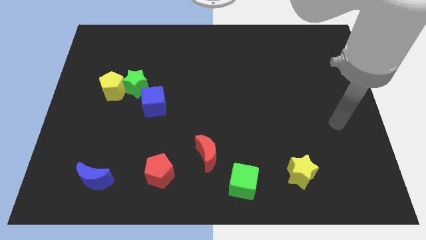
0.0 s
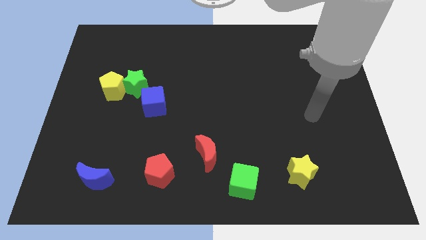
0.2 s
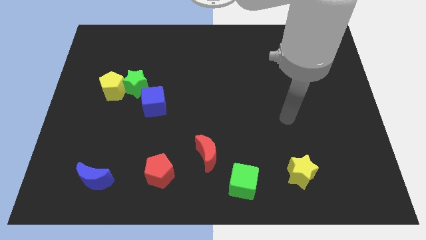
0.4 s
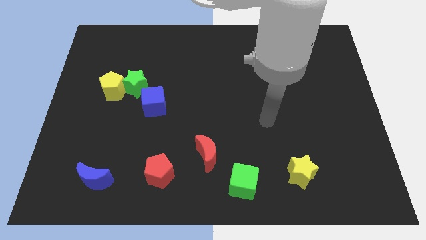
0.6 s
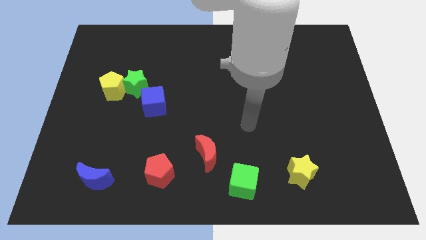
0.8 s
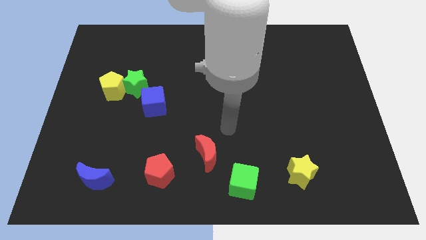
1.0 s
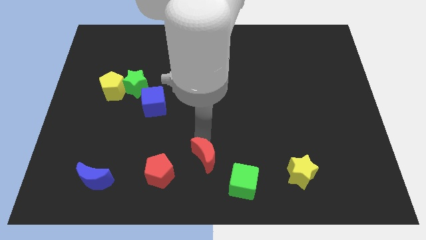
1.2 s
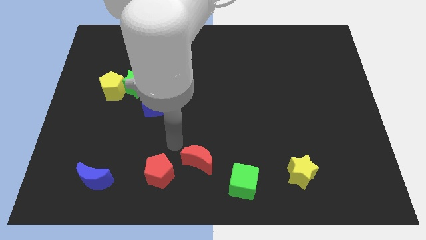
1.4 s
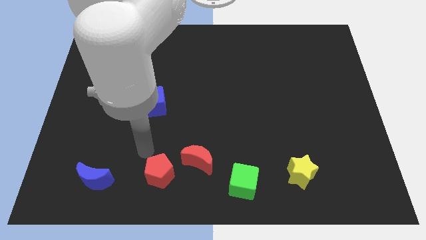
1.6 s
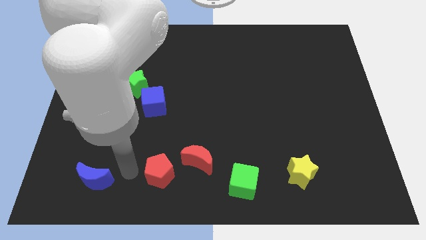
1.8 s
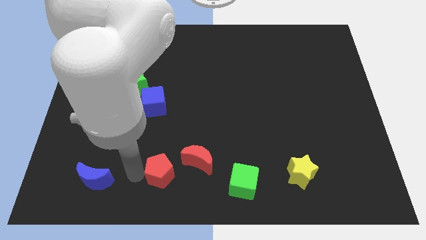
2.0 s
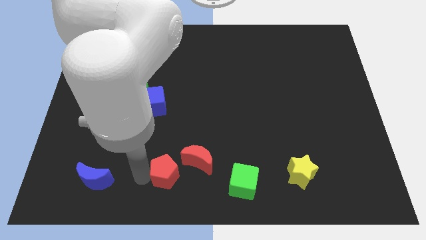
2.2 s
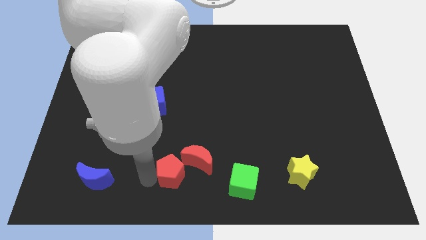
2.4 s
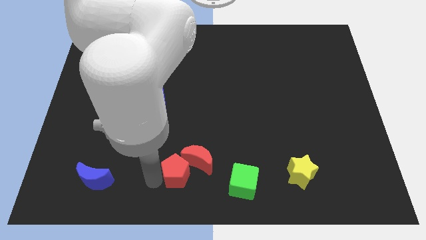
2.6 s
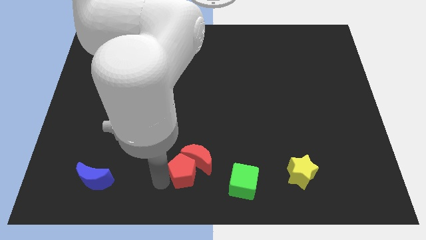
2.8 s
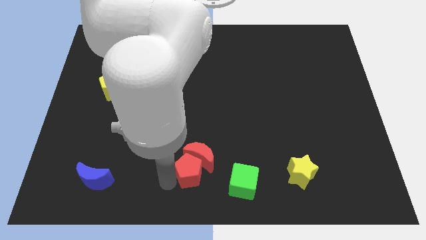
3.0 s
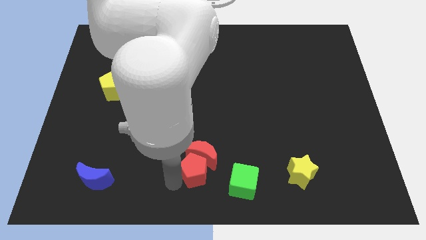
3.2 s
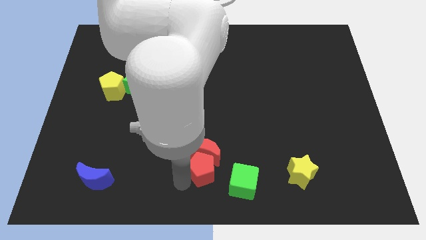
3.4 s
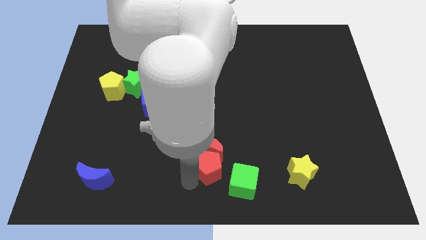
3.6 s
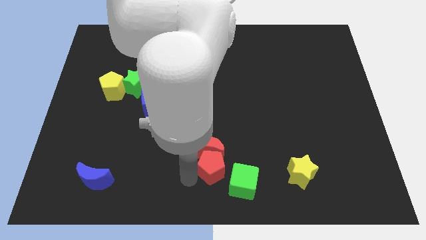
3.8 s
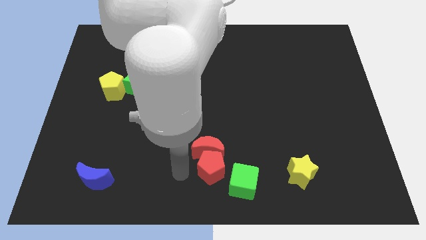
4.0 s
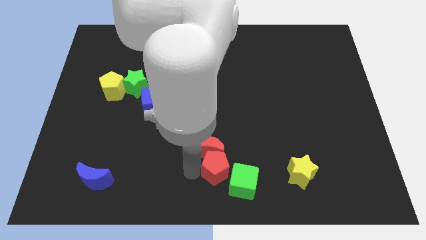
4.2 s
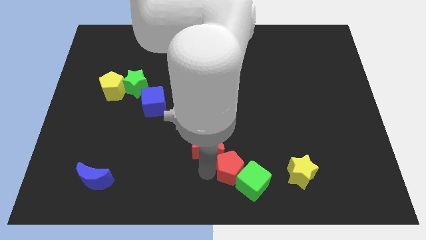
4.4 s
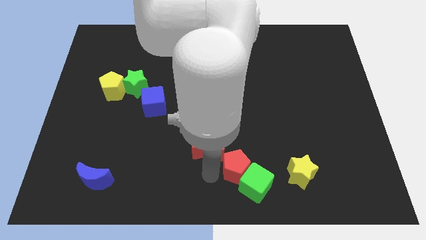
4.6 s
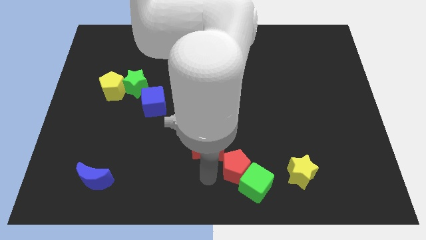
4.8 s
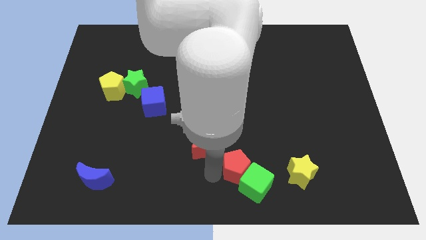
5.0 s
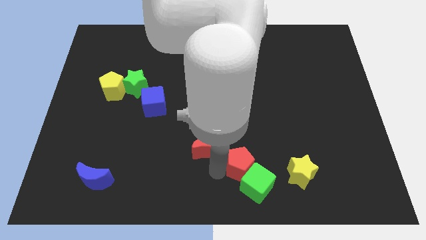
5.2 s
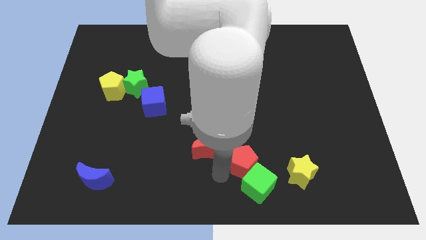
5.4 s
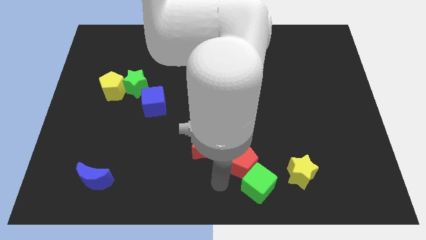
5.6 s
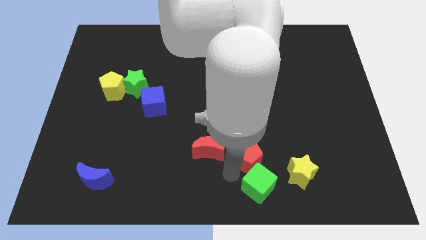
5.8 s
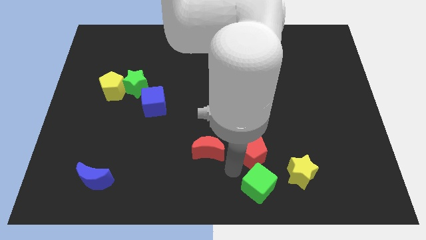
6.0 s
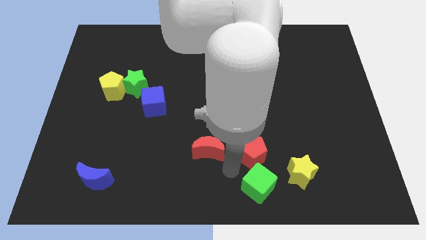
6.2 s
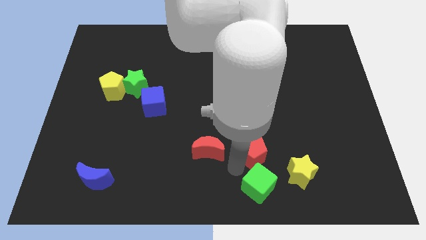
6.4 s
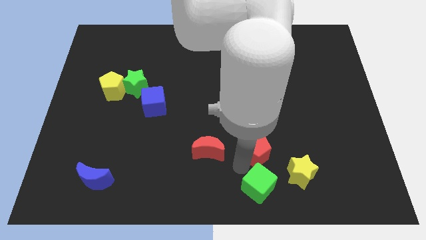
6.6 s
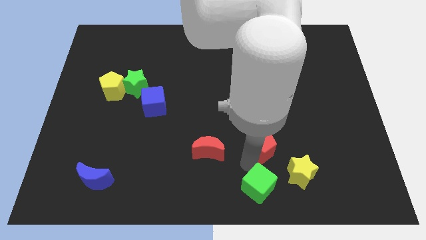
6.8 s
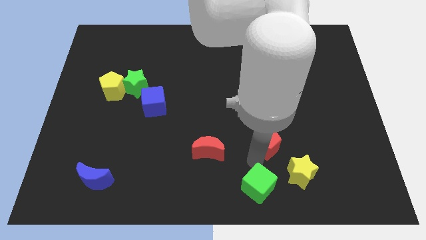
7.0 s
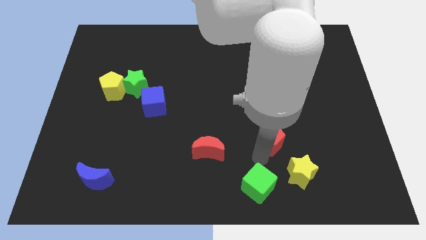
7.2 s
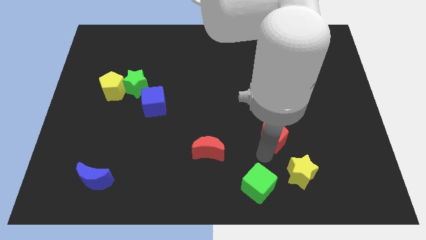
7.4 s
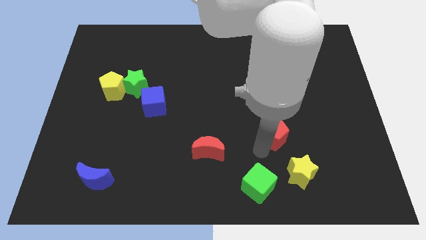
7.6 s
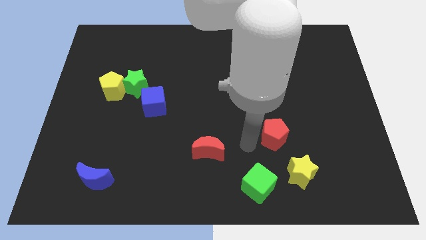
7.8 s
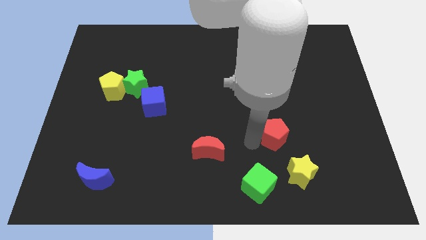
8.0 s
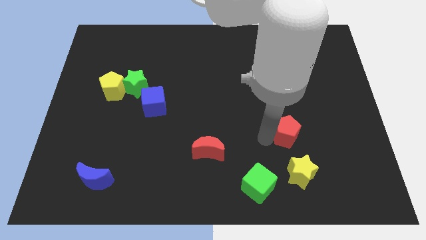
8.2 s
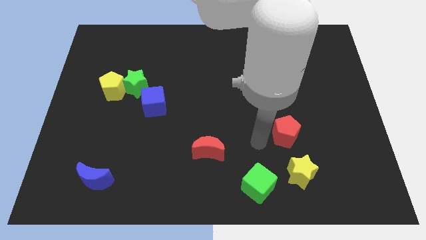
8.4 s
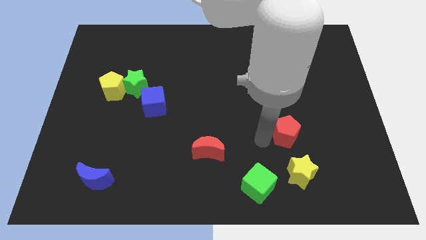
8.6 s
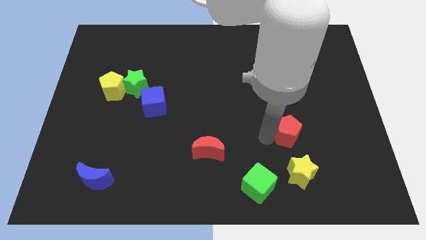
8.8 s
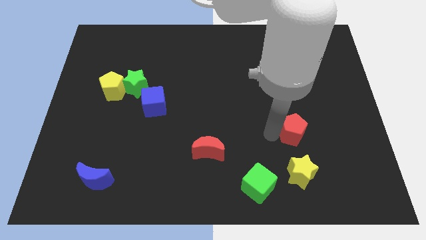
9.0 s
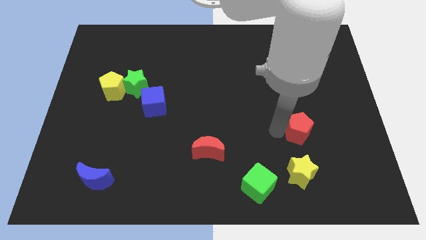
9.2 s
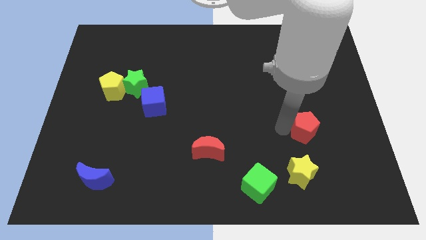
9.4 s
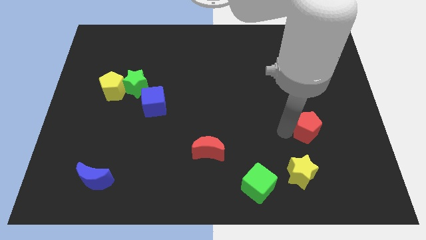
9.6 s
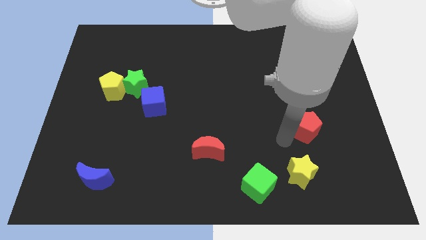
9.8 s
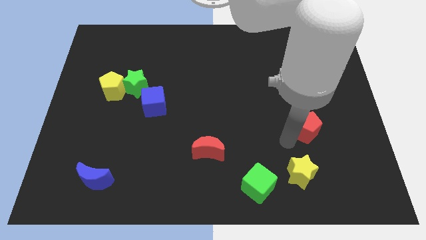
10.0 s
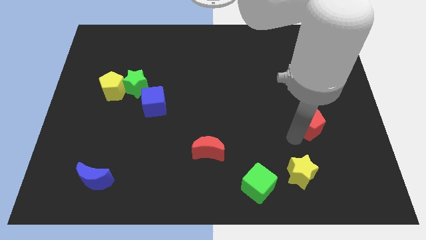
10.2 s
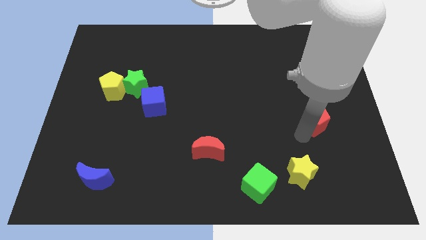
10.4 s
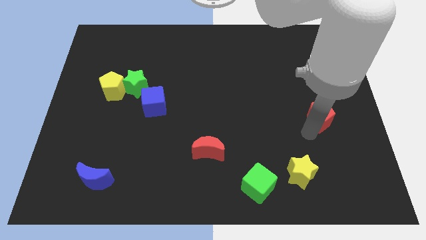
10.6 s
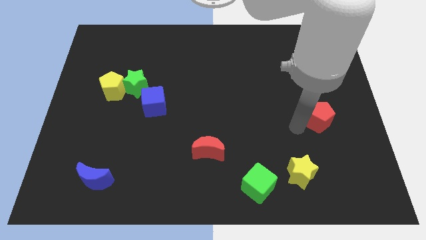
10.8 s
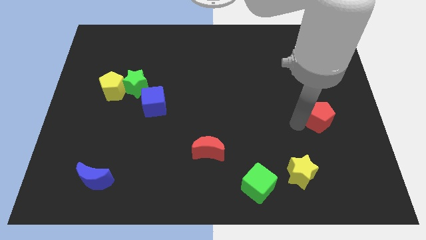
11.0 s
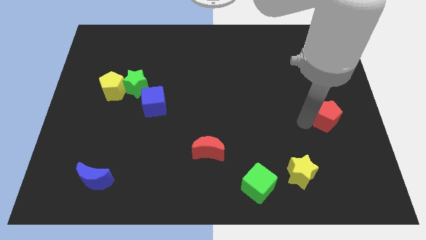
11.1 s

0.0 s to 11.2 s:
slide the red pentagon to the right side

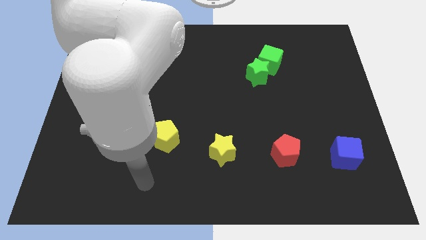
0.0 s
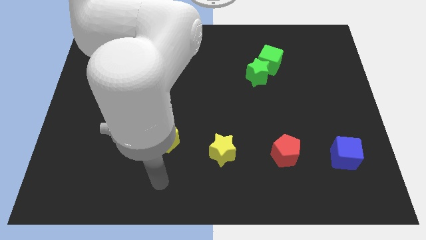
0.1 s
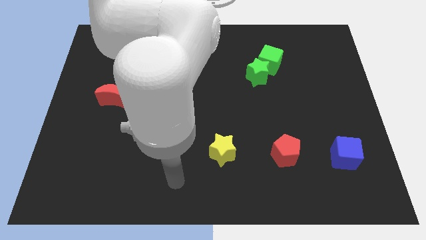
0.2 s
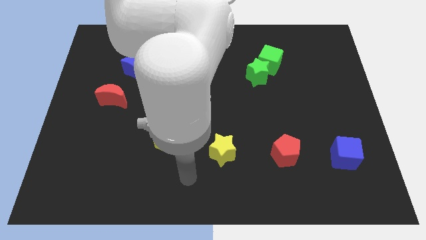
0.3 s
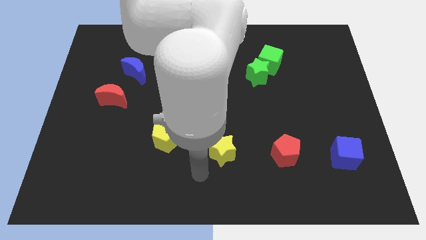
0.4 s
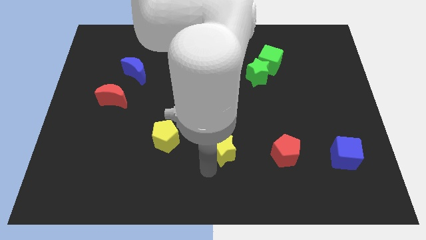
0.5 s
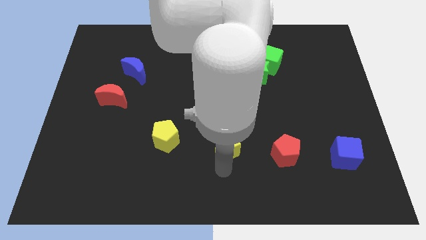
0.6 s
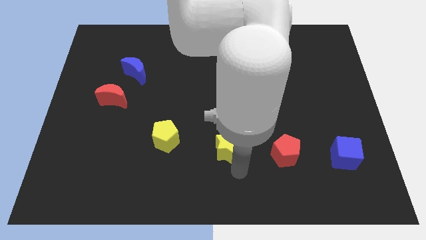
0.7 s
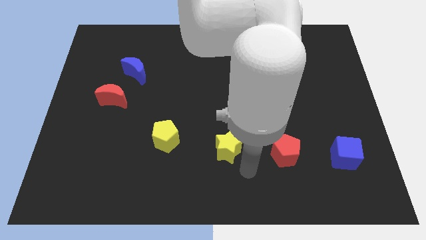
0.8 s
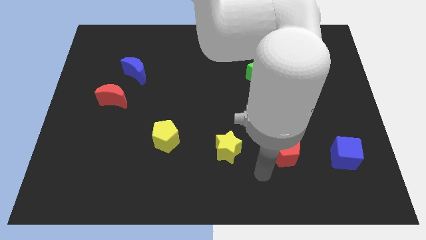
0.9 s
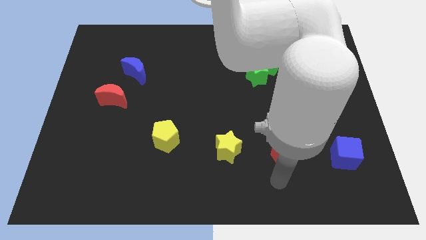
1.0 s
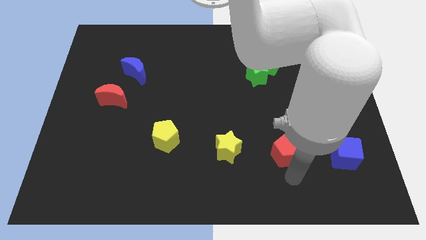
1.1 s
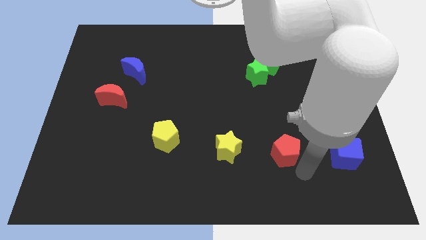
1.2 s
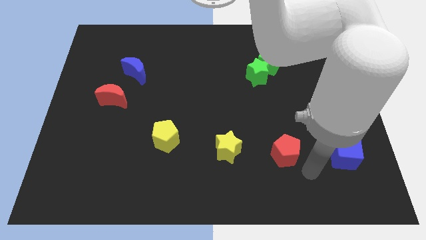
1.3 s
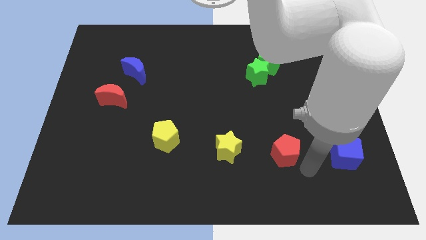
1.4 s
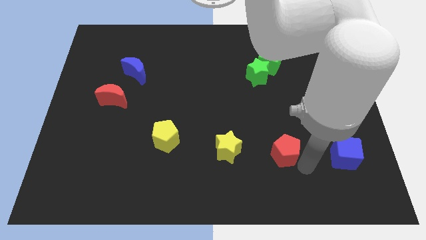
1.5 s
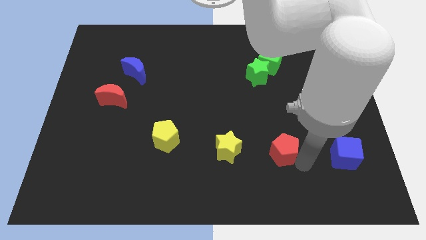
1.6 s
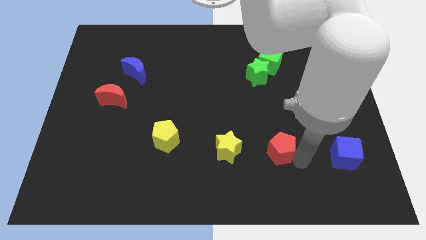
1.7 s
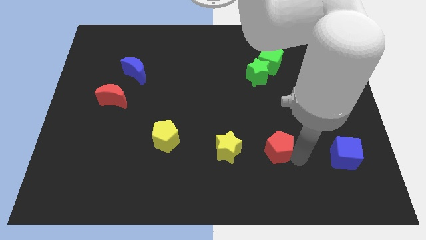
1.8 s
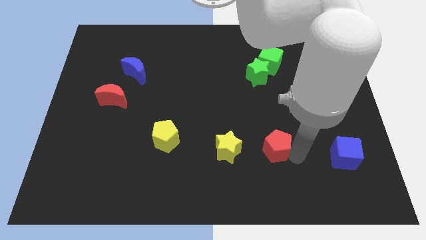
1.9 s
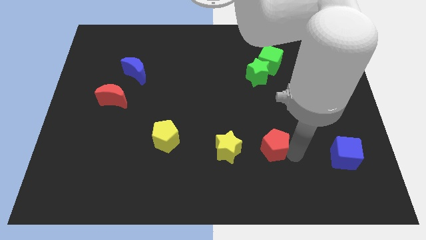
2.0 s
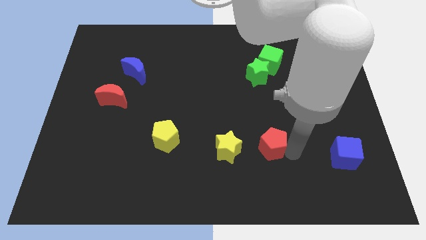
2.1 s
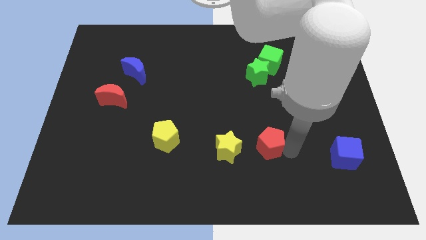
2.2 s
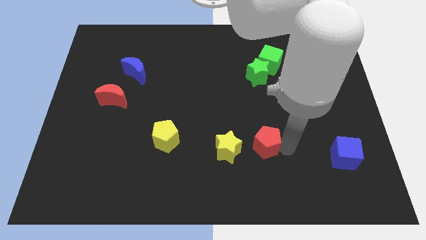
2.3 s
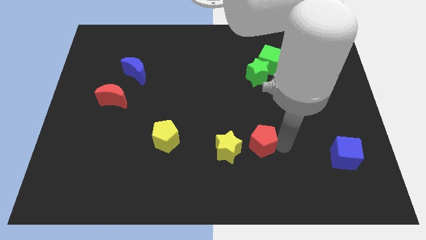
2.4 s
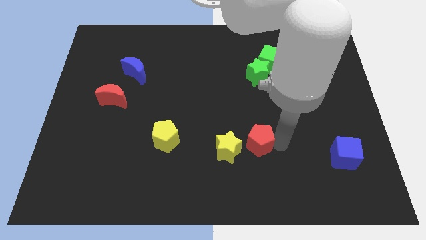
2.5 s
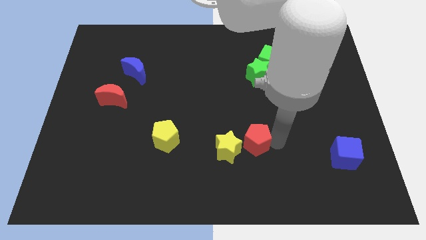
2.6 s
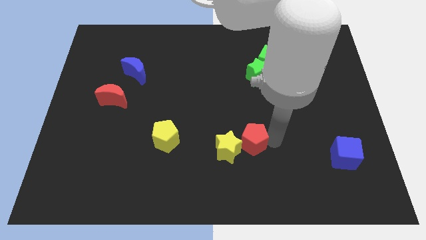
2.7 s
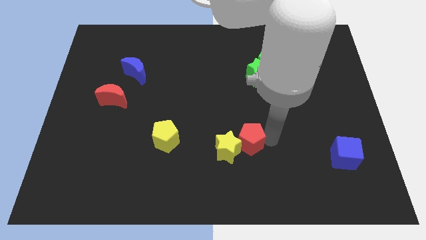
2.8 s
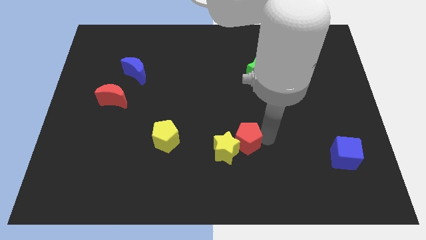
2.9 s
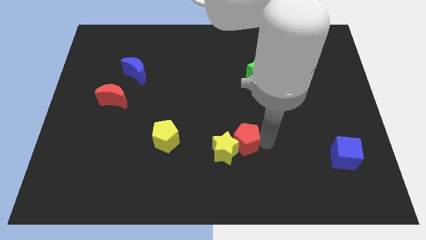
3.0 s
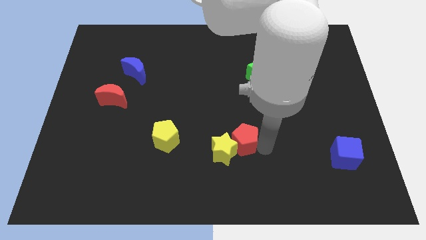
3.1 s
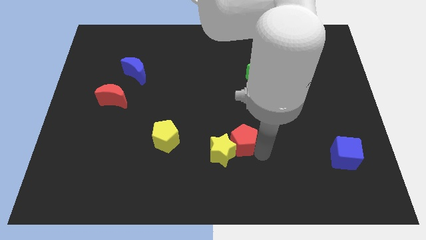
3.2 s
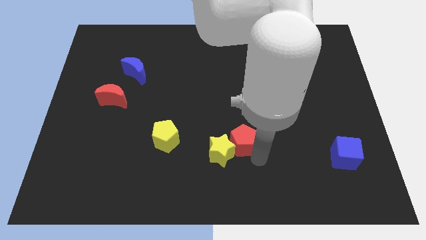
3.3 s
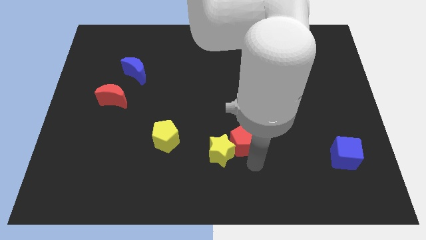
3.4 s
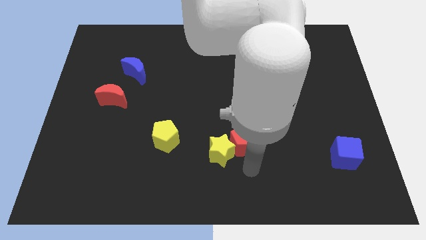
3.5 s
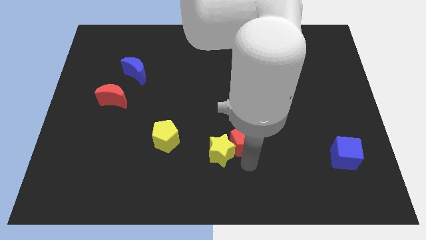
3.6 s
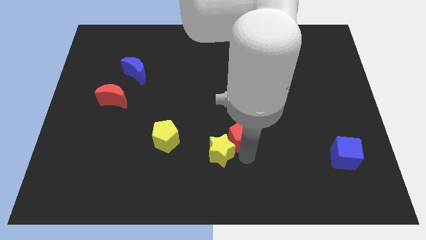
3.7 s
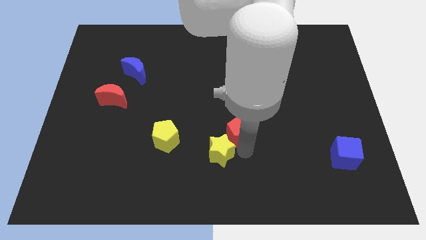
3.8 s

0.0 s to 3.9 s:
put the red pentagon to the center of the board
